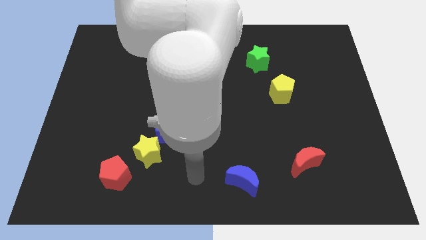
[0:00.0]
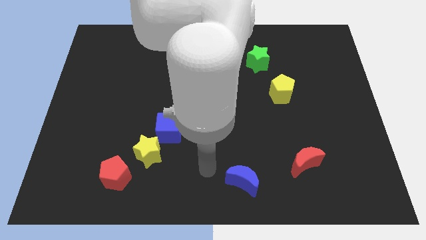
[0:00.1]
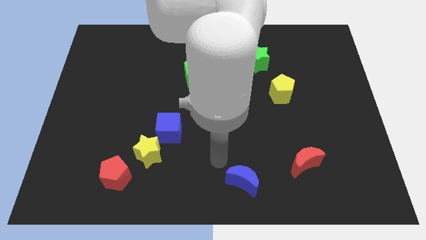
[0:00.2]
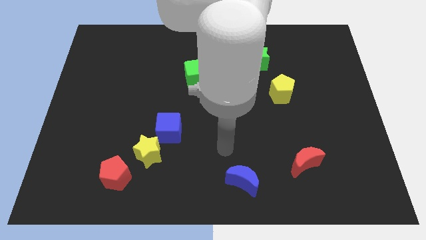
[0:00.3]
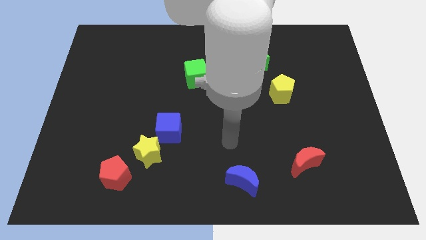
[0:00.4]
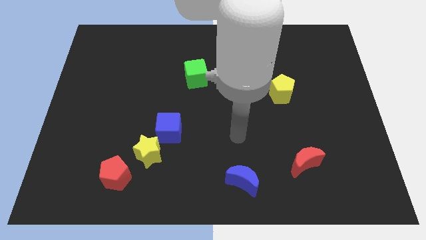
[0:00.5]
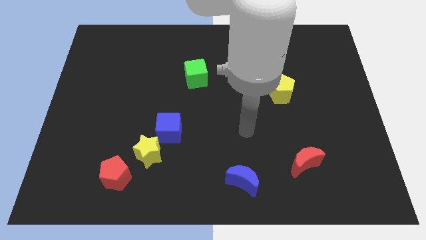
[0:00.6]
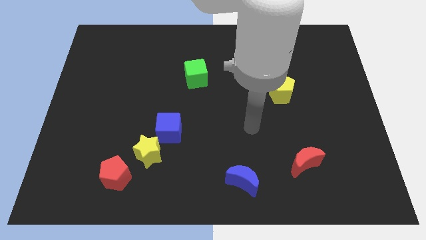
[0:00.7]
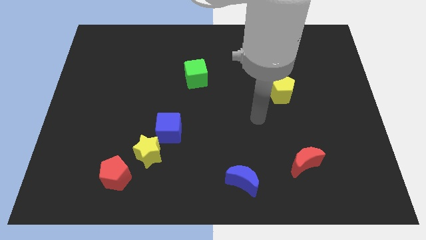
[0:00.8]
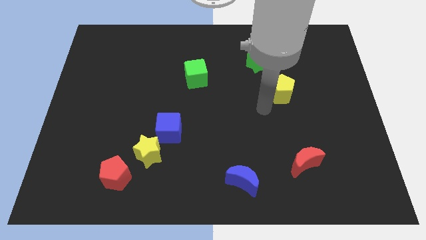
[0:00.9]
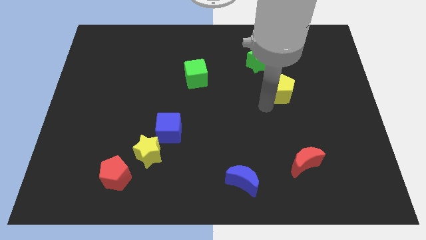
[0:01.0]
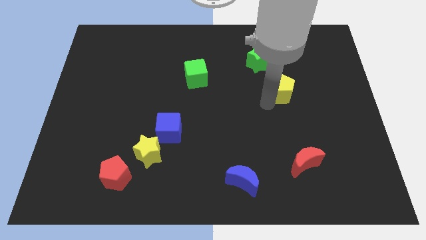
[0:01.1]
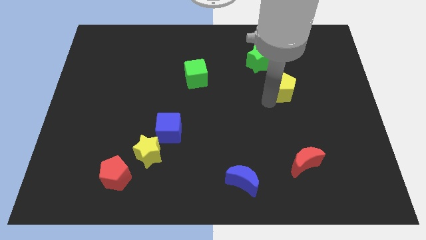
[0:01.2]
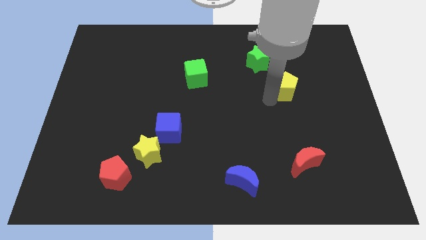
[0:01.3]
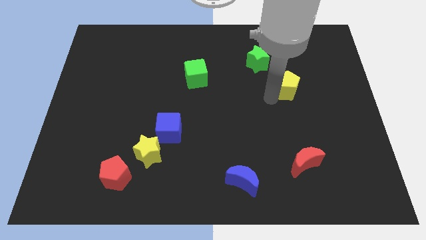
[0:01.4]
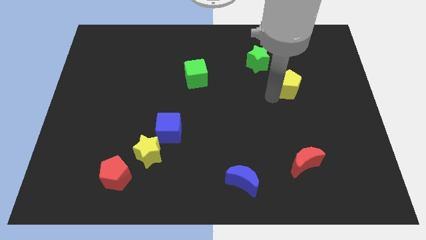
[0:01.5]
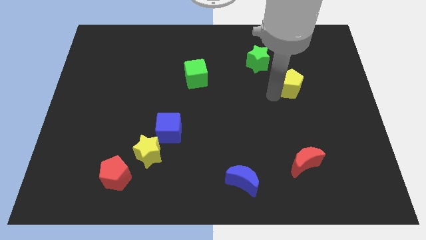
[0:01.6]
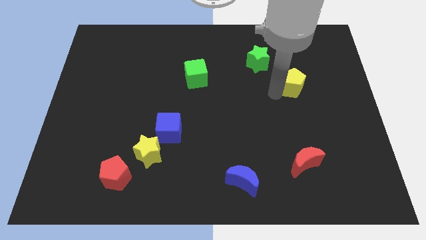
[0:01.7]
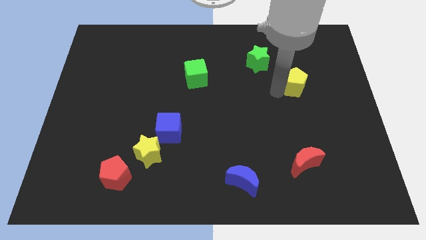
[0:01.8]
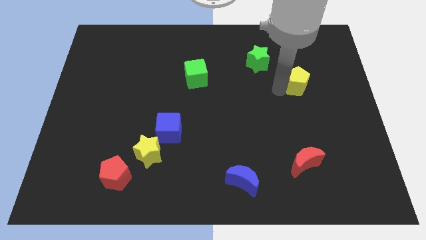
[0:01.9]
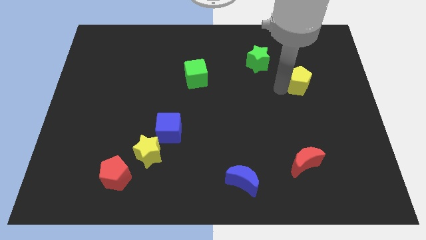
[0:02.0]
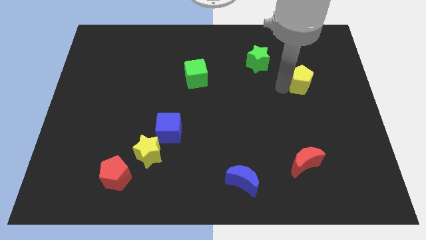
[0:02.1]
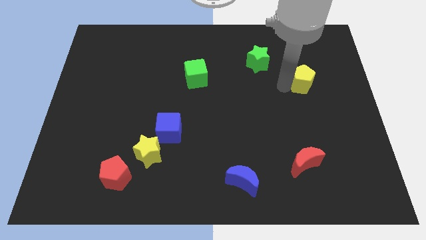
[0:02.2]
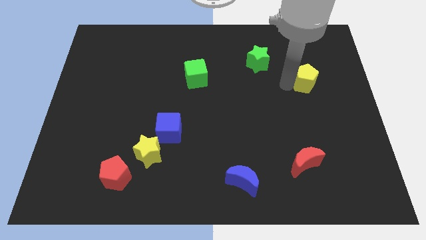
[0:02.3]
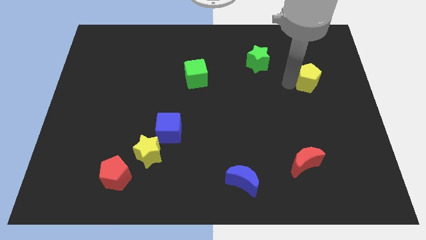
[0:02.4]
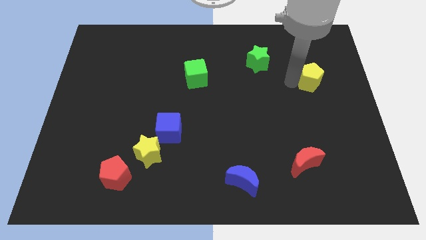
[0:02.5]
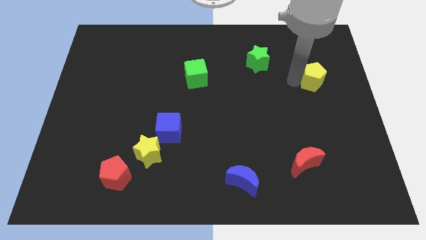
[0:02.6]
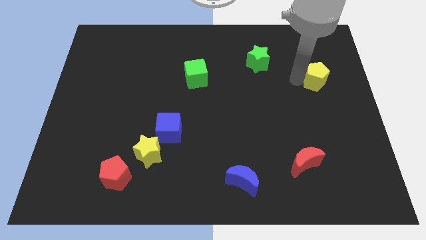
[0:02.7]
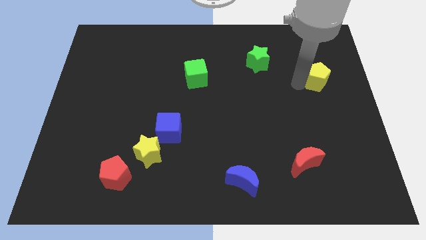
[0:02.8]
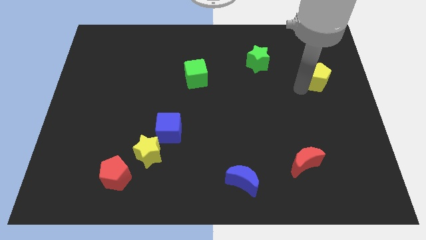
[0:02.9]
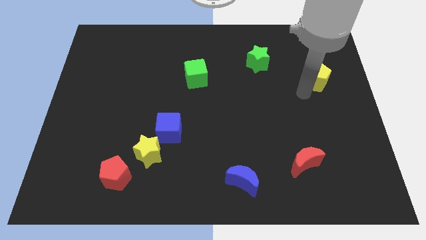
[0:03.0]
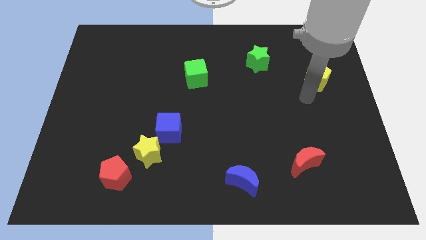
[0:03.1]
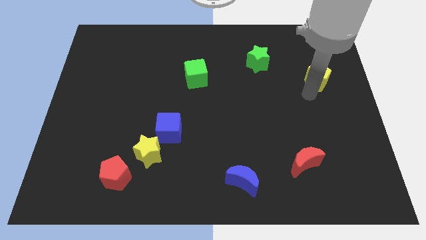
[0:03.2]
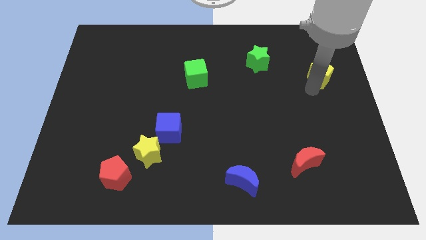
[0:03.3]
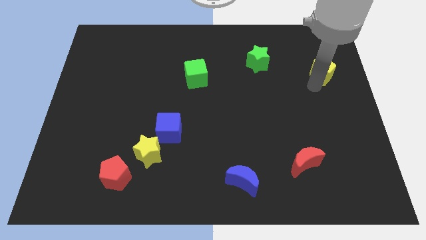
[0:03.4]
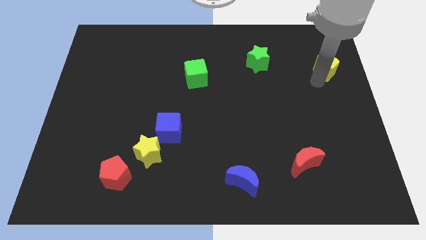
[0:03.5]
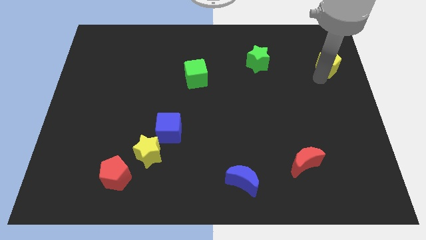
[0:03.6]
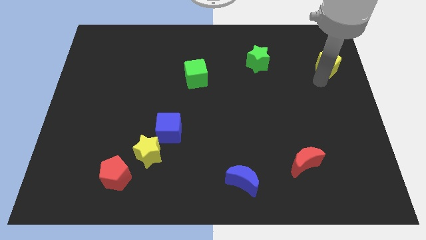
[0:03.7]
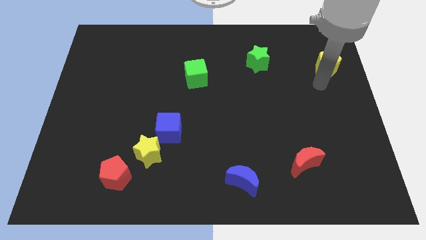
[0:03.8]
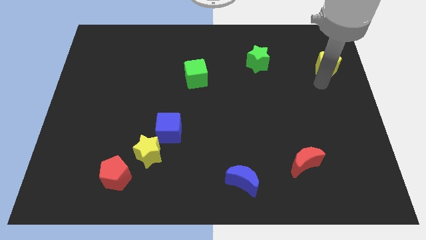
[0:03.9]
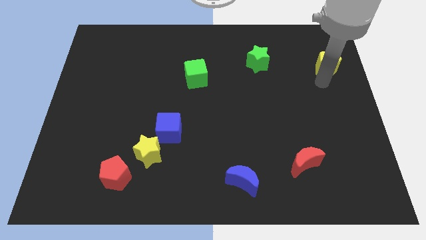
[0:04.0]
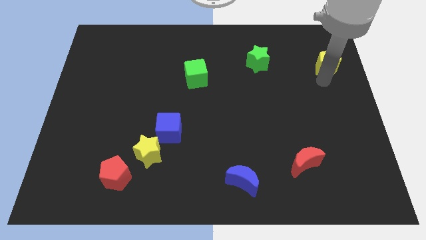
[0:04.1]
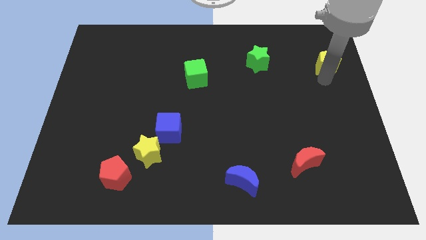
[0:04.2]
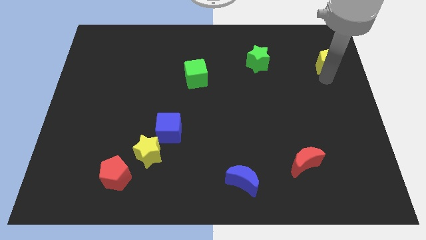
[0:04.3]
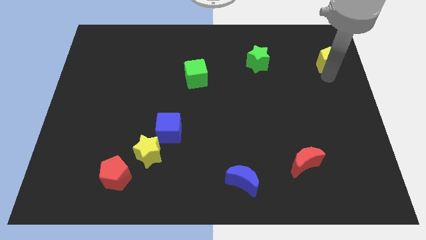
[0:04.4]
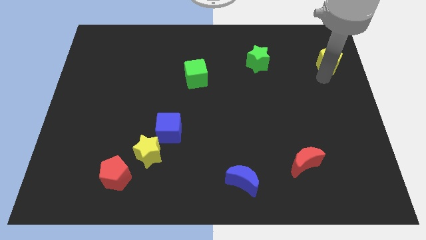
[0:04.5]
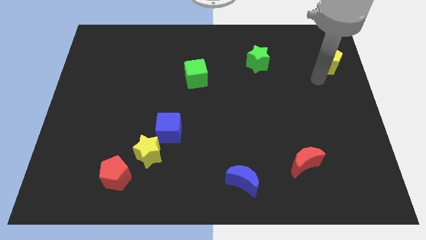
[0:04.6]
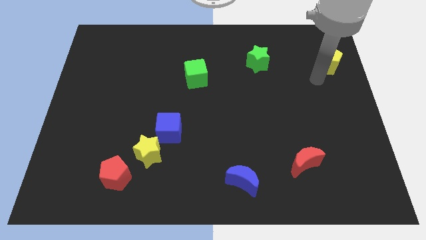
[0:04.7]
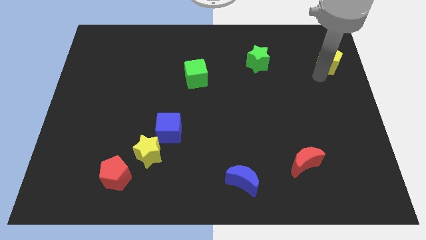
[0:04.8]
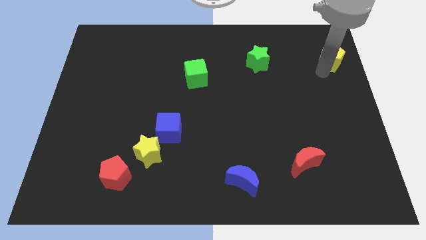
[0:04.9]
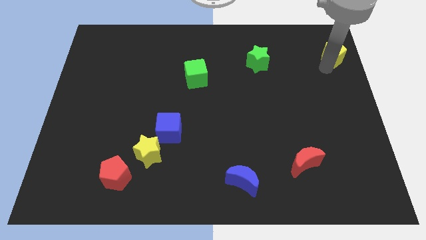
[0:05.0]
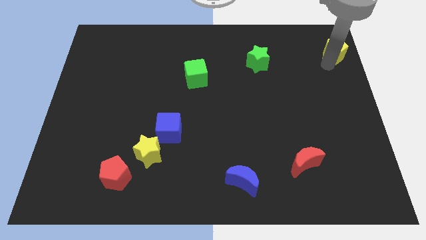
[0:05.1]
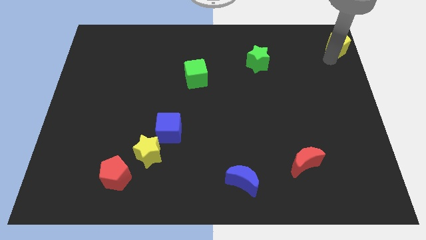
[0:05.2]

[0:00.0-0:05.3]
put the yellow pentagon to the upper right corner

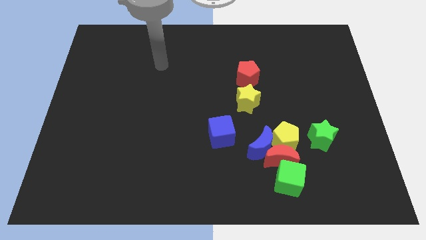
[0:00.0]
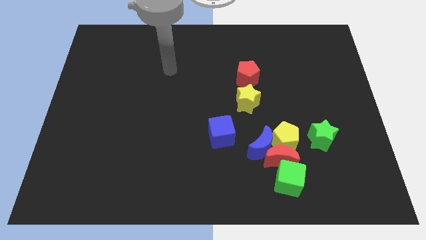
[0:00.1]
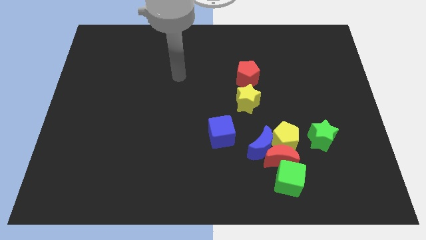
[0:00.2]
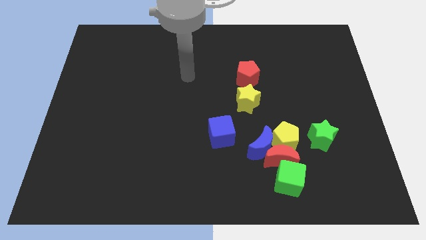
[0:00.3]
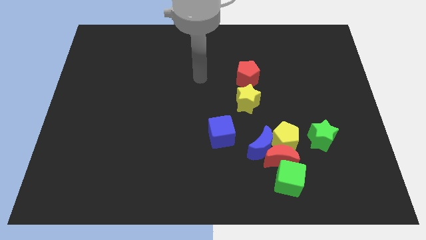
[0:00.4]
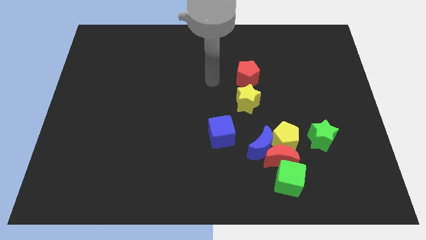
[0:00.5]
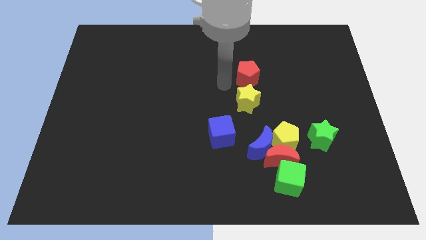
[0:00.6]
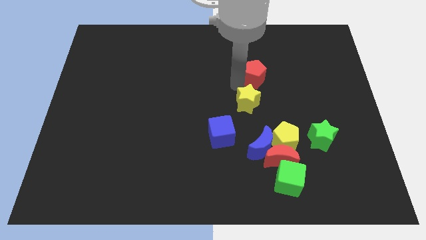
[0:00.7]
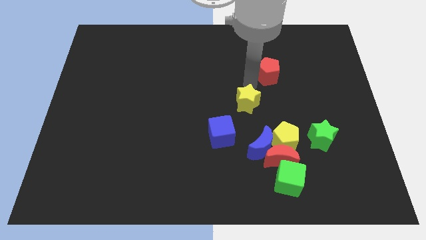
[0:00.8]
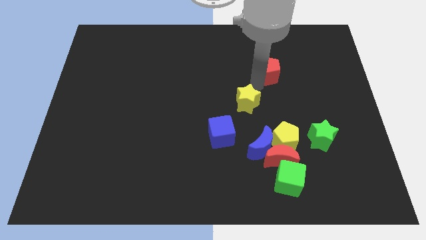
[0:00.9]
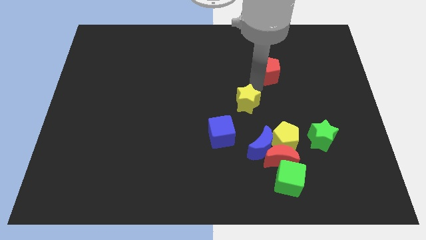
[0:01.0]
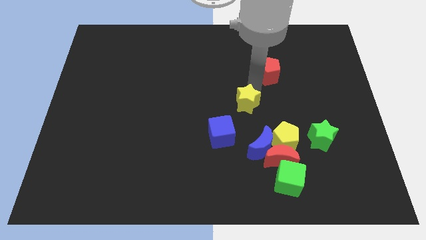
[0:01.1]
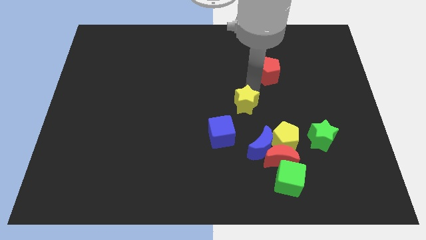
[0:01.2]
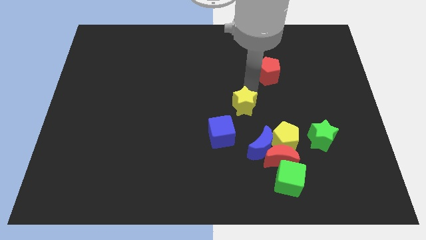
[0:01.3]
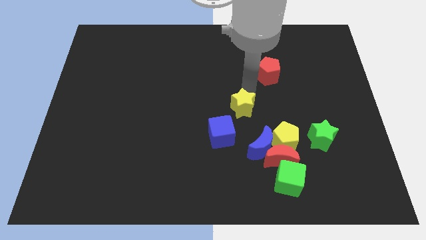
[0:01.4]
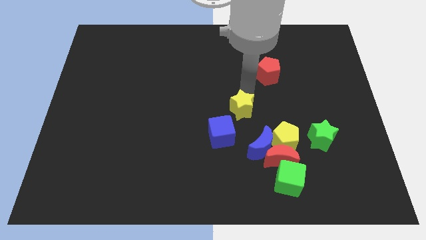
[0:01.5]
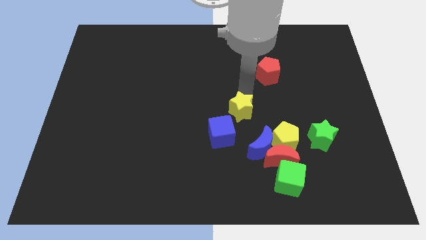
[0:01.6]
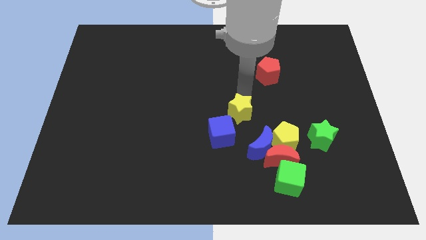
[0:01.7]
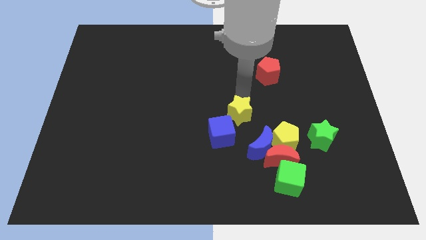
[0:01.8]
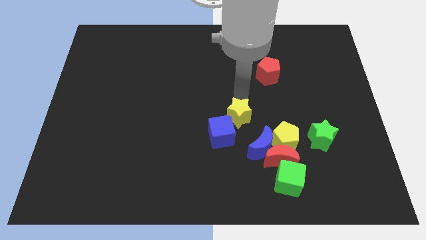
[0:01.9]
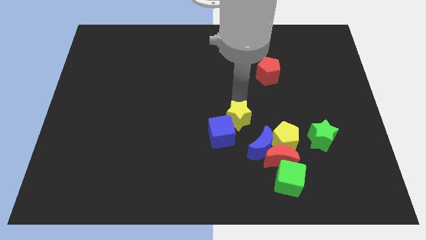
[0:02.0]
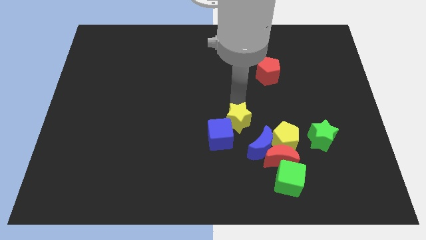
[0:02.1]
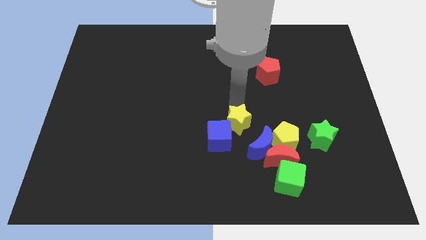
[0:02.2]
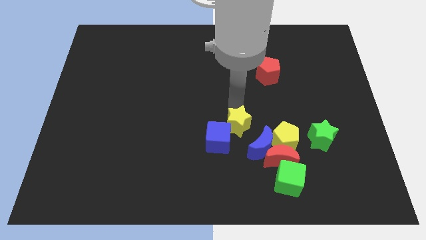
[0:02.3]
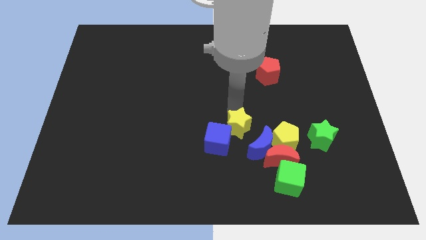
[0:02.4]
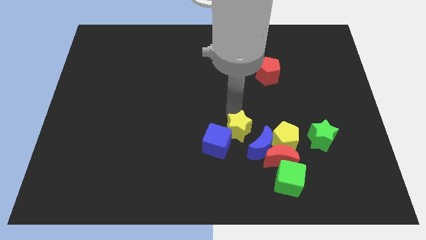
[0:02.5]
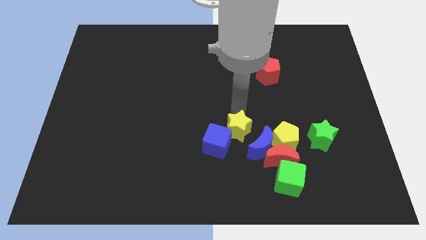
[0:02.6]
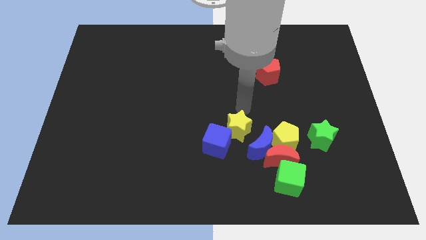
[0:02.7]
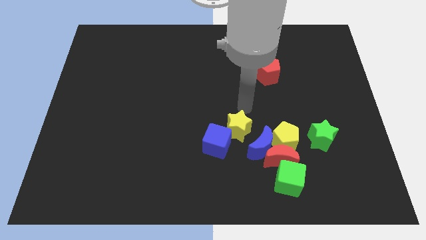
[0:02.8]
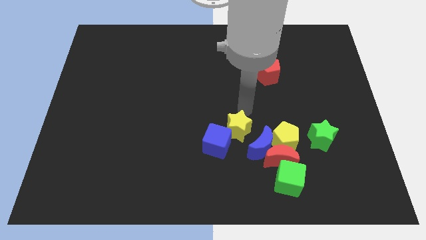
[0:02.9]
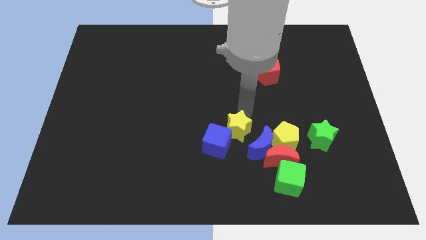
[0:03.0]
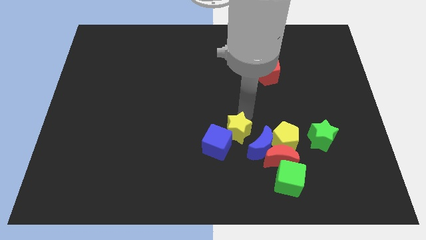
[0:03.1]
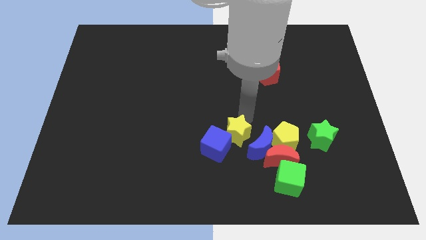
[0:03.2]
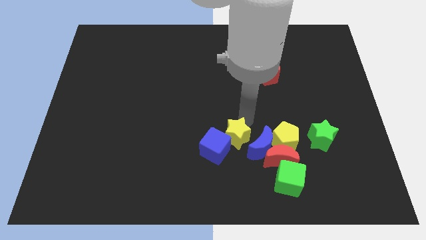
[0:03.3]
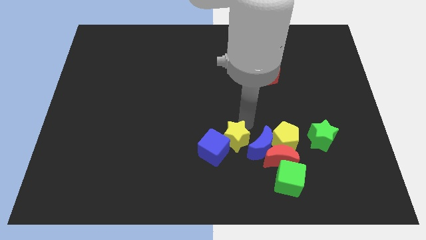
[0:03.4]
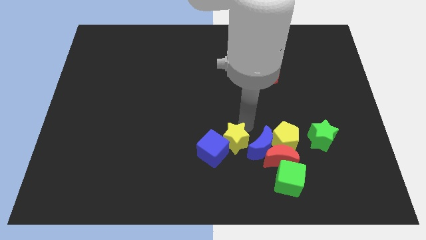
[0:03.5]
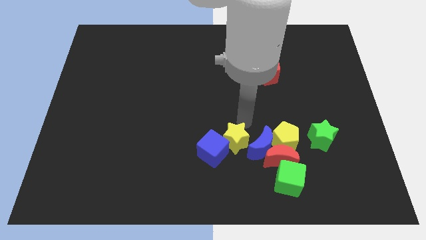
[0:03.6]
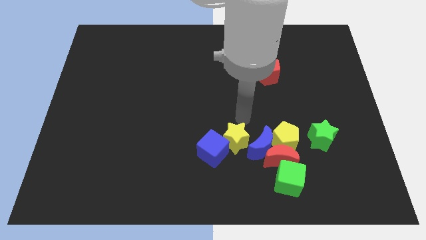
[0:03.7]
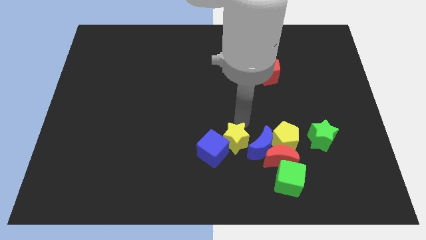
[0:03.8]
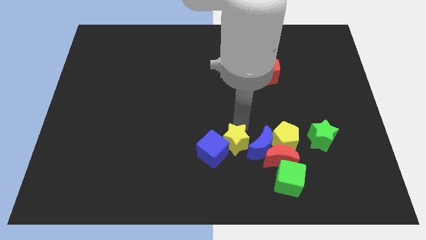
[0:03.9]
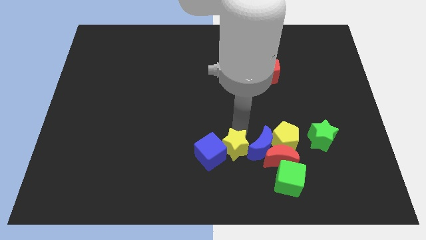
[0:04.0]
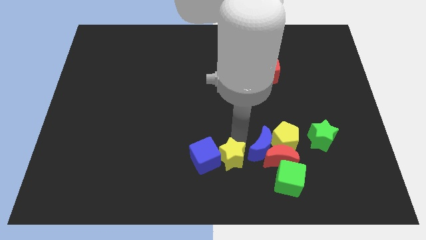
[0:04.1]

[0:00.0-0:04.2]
move the yellow star to the bottom
